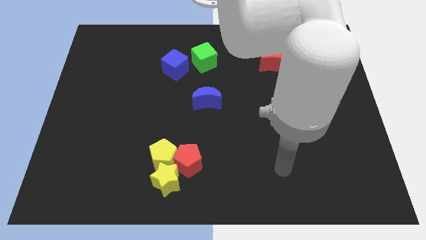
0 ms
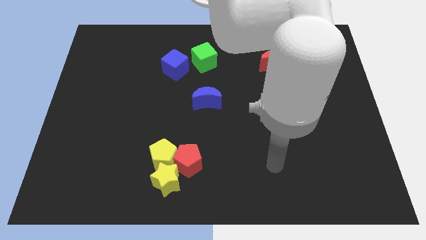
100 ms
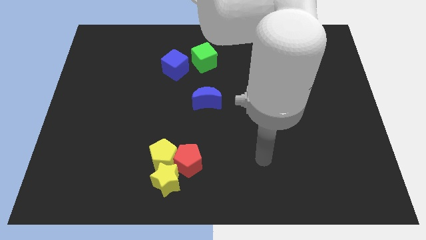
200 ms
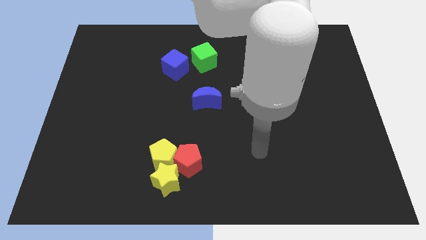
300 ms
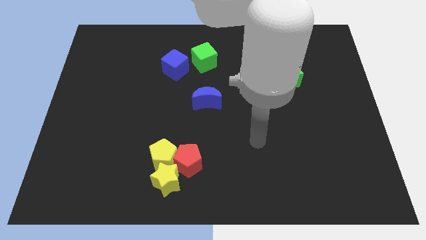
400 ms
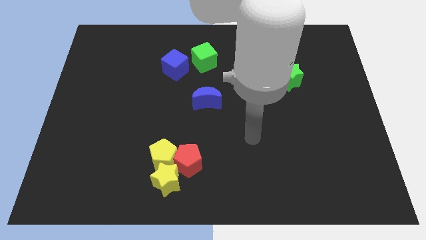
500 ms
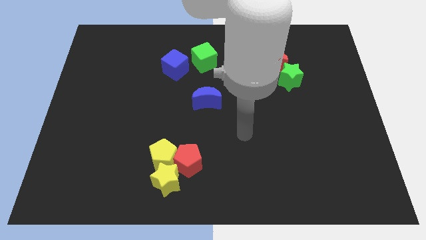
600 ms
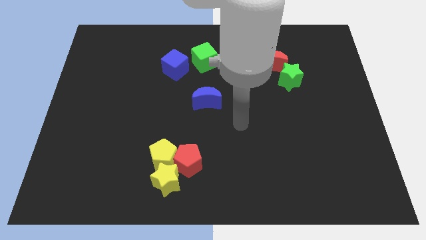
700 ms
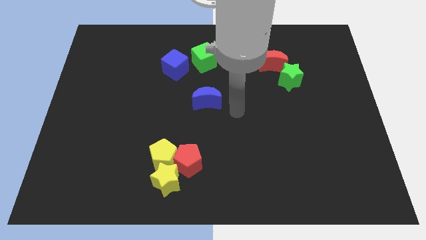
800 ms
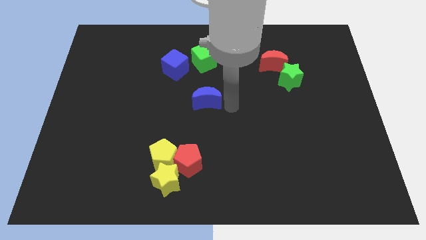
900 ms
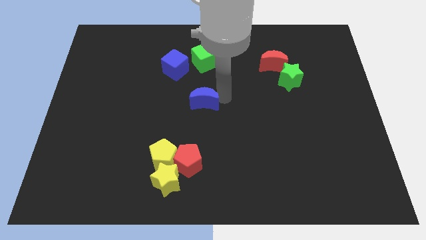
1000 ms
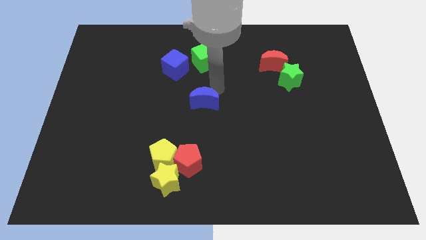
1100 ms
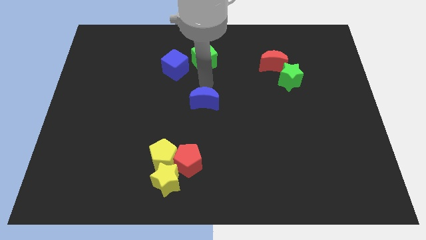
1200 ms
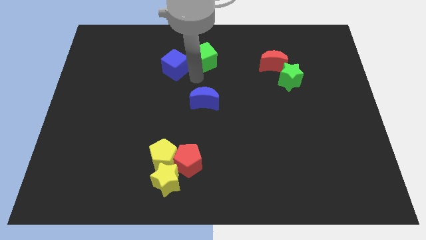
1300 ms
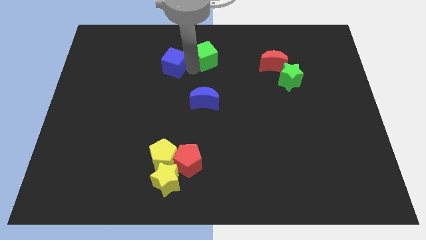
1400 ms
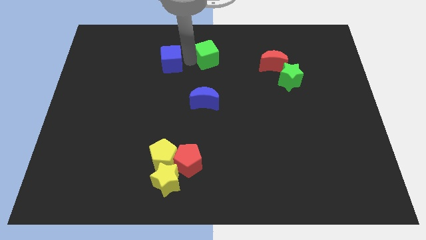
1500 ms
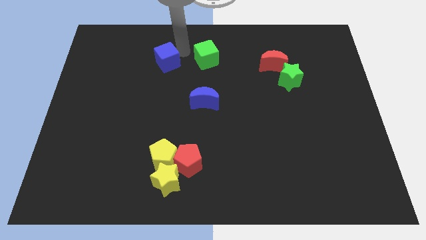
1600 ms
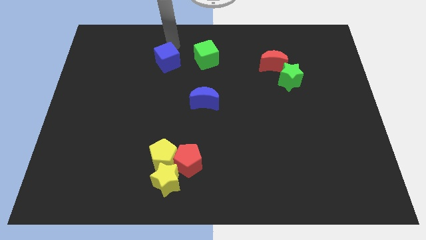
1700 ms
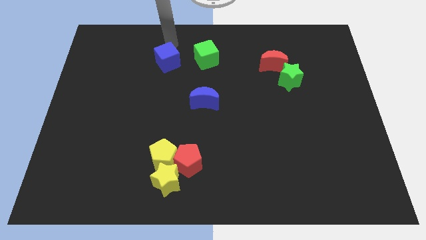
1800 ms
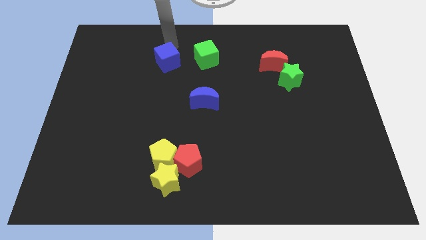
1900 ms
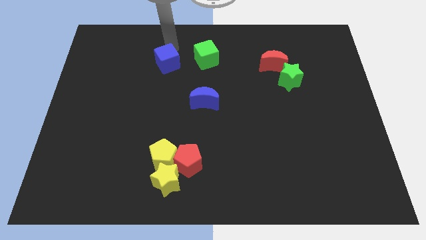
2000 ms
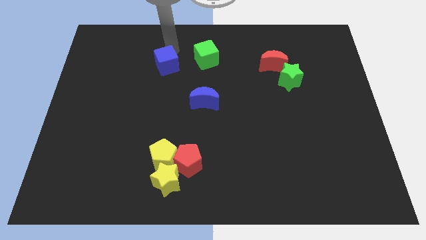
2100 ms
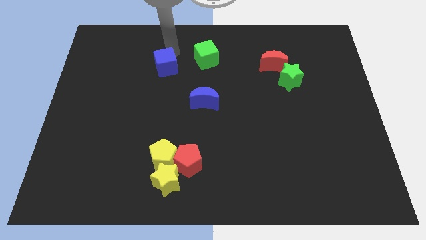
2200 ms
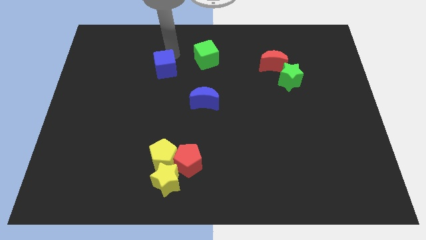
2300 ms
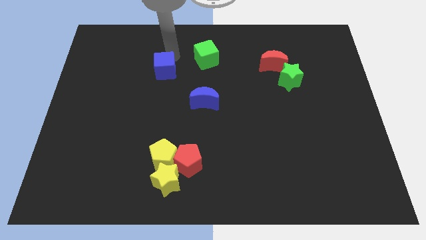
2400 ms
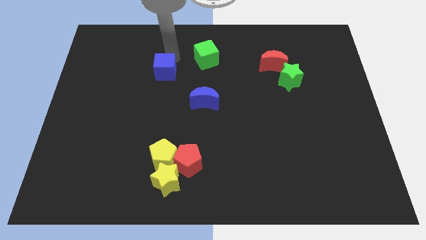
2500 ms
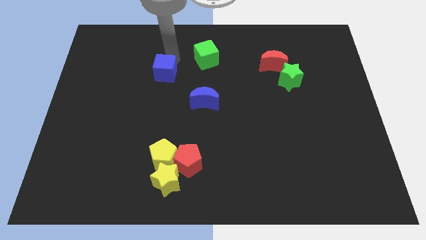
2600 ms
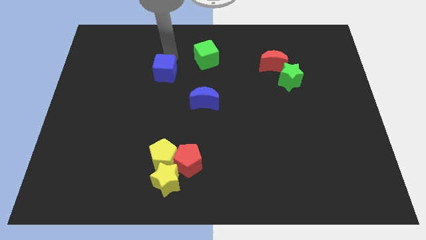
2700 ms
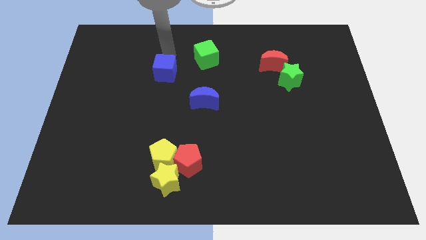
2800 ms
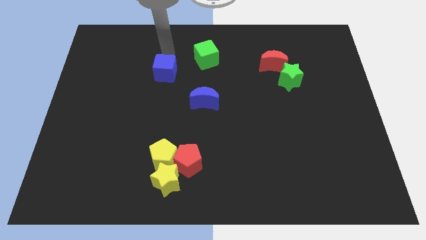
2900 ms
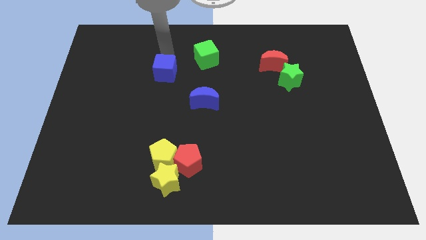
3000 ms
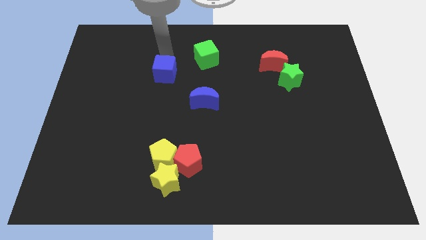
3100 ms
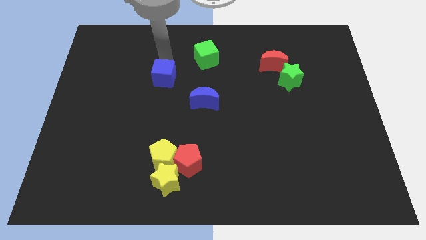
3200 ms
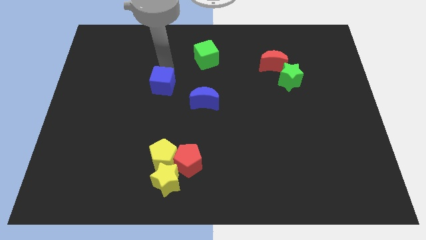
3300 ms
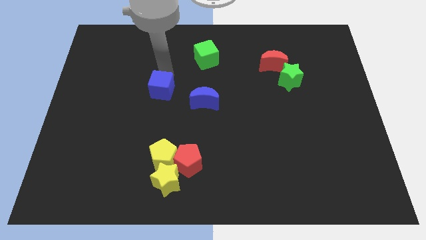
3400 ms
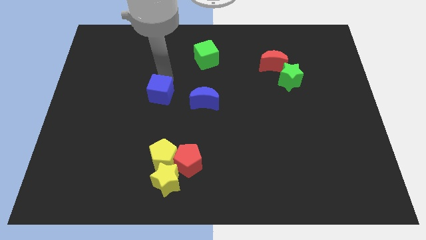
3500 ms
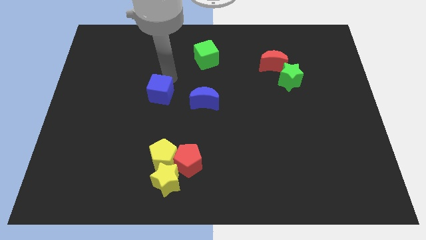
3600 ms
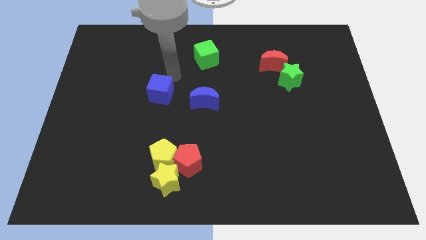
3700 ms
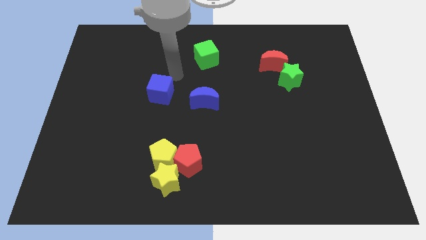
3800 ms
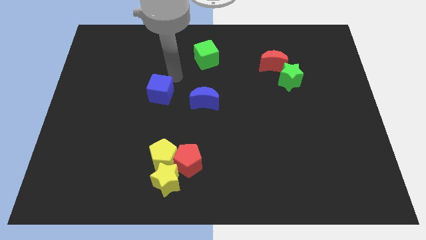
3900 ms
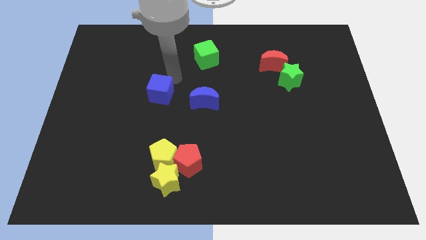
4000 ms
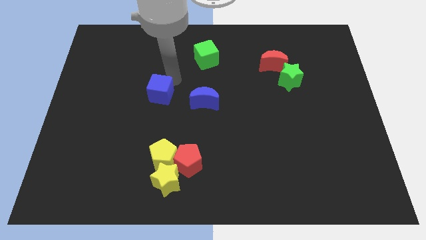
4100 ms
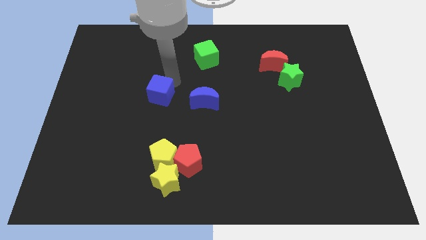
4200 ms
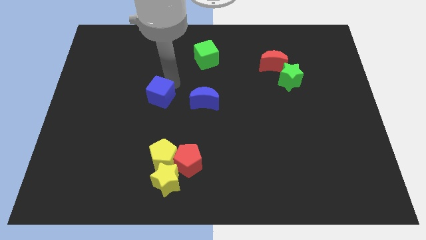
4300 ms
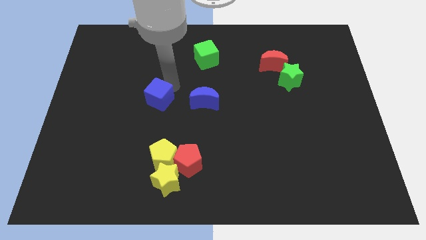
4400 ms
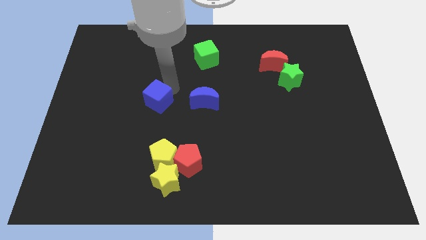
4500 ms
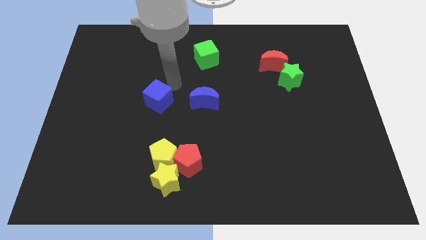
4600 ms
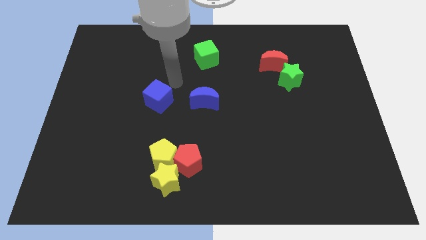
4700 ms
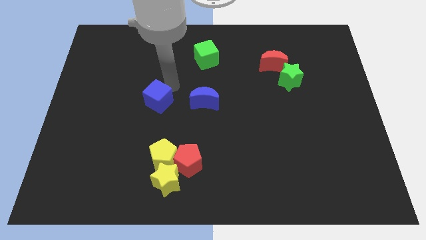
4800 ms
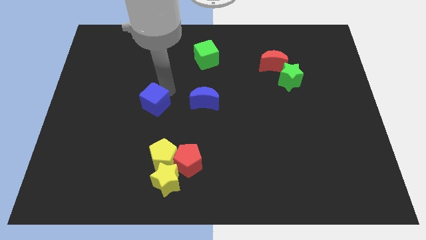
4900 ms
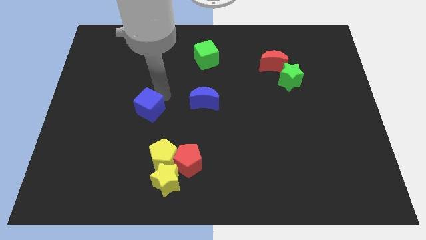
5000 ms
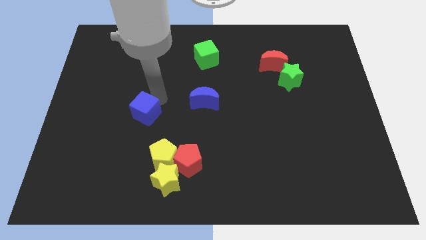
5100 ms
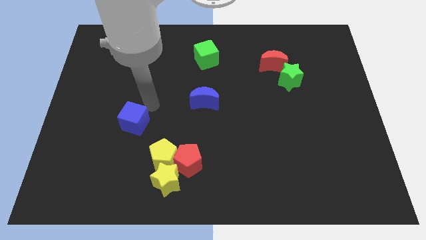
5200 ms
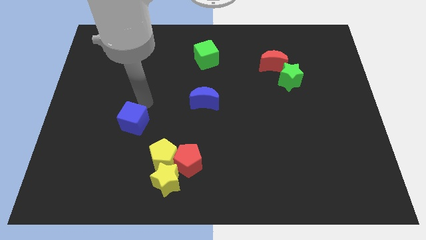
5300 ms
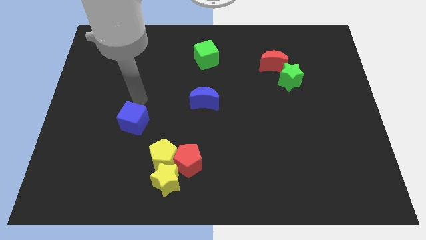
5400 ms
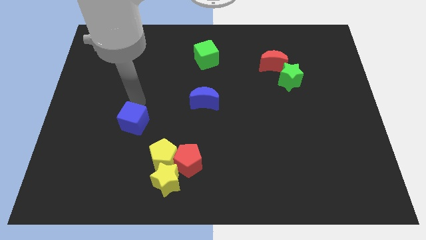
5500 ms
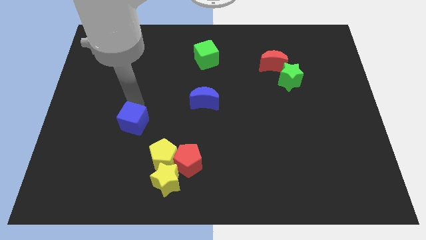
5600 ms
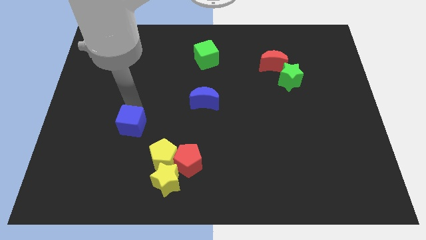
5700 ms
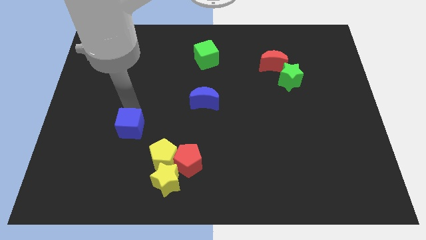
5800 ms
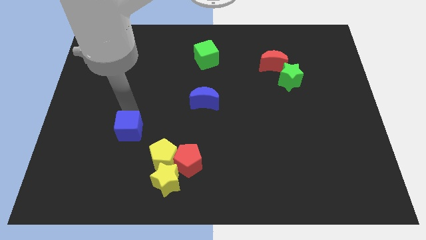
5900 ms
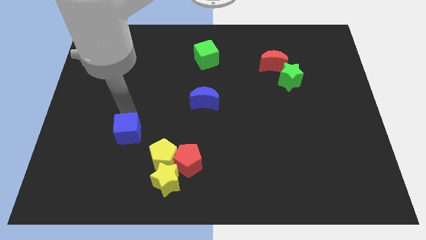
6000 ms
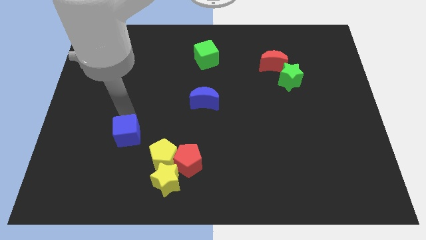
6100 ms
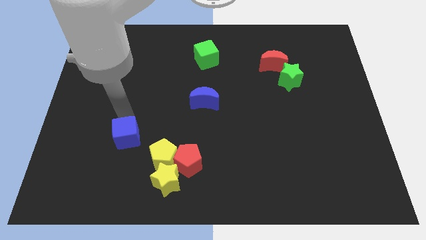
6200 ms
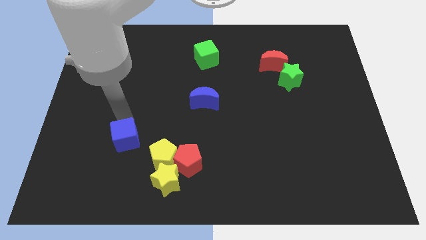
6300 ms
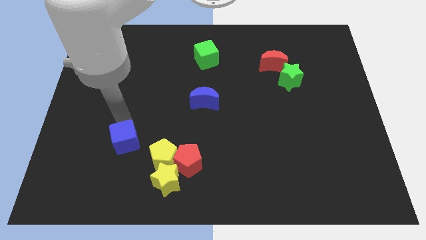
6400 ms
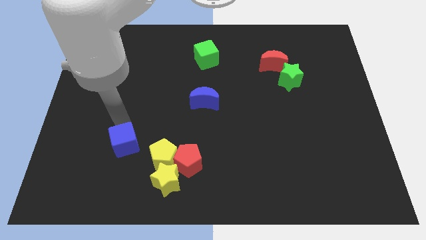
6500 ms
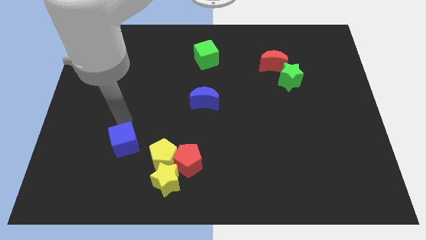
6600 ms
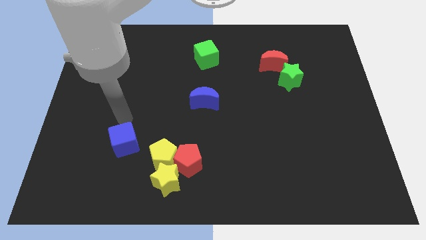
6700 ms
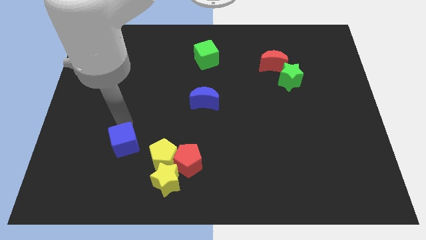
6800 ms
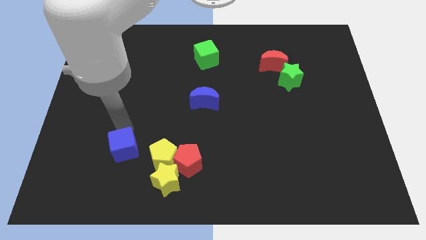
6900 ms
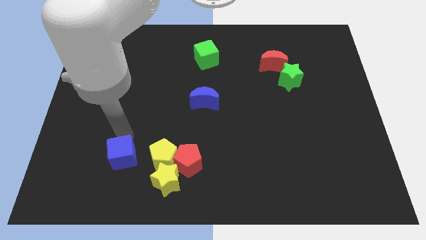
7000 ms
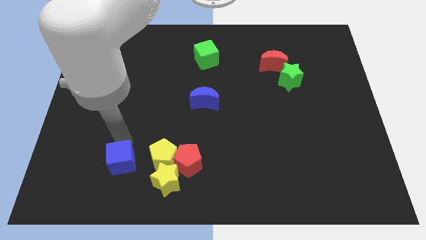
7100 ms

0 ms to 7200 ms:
put the blue cube to the left side of the yellow star
